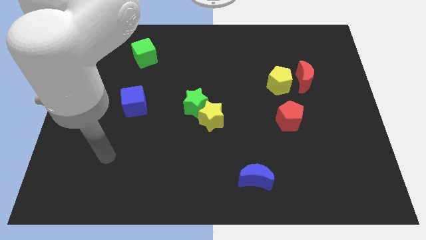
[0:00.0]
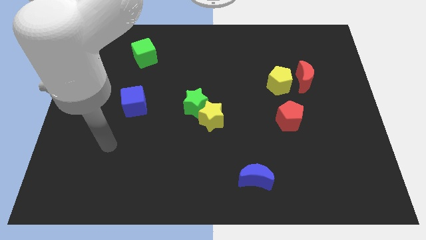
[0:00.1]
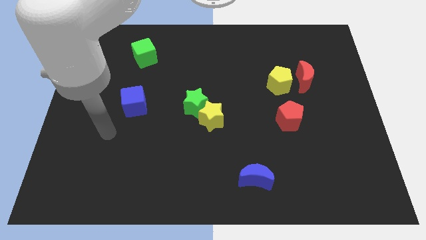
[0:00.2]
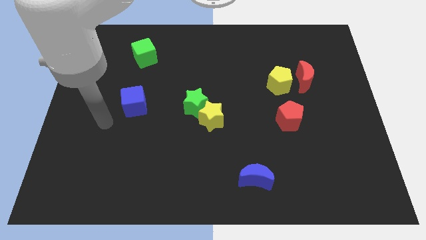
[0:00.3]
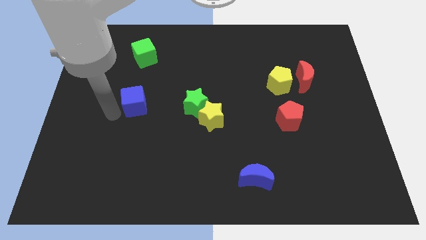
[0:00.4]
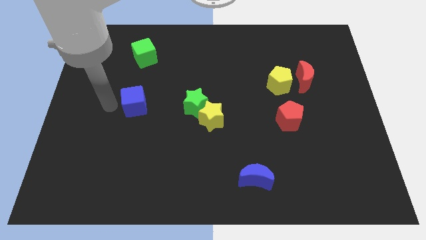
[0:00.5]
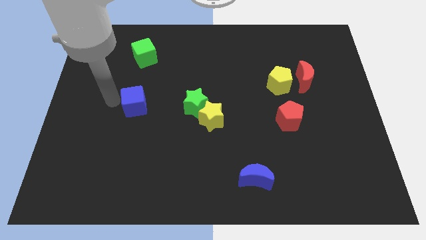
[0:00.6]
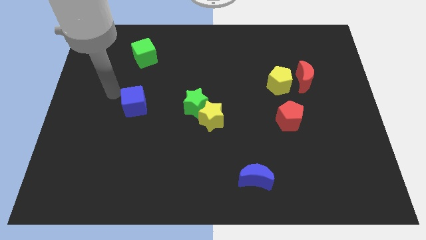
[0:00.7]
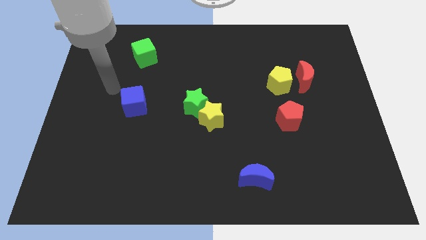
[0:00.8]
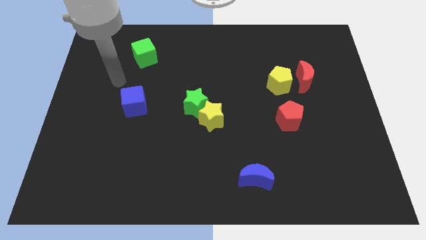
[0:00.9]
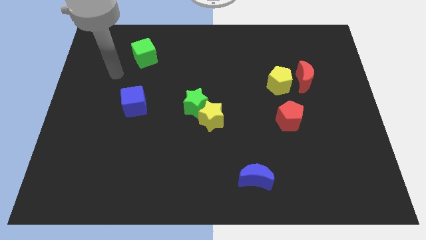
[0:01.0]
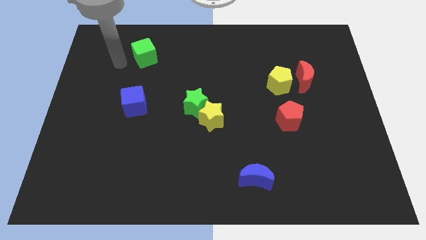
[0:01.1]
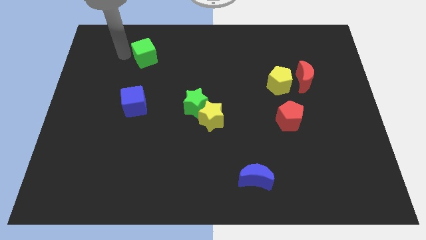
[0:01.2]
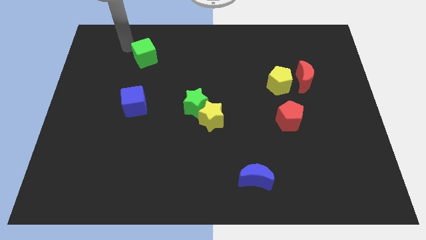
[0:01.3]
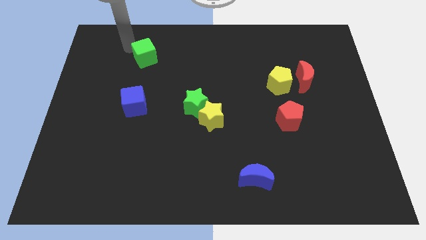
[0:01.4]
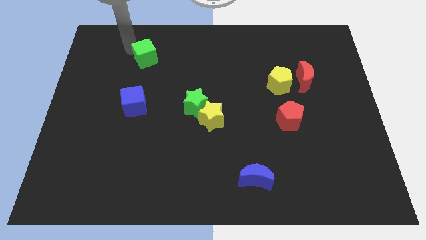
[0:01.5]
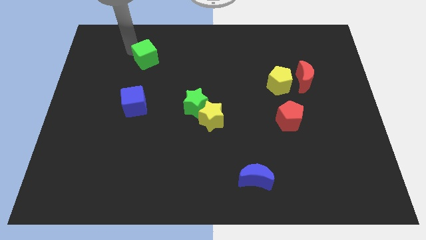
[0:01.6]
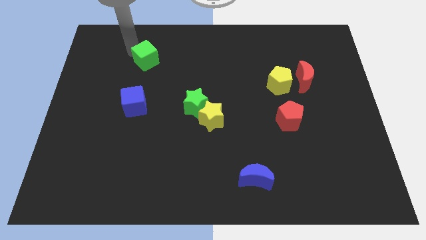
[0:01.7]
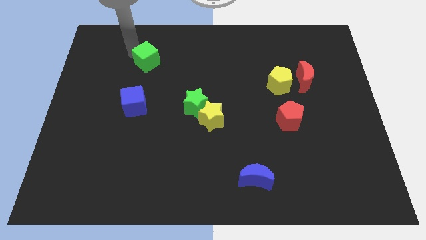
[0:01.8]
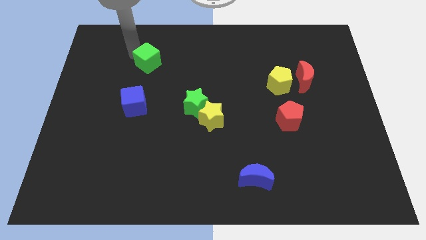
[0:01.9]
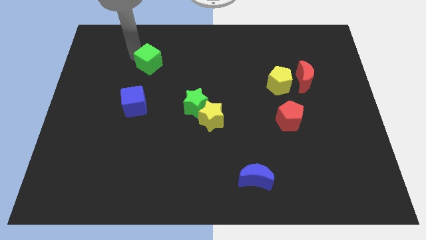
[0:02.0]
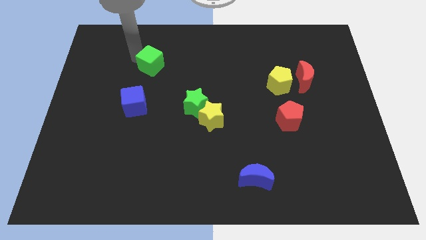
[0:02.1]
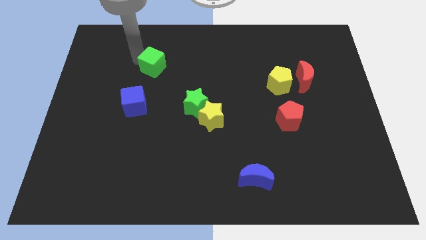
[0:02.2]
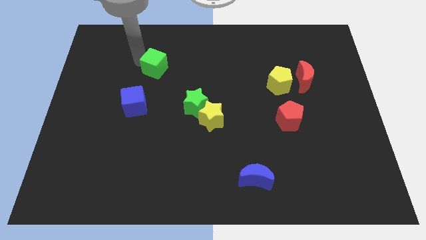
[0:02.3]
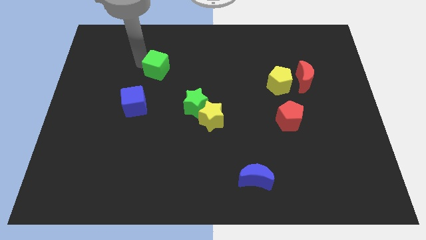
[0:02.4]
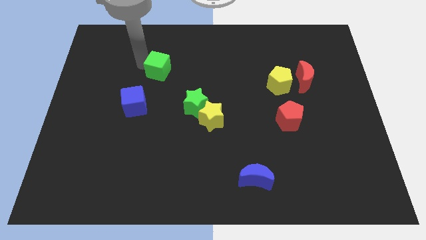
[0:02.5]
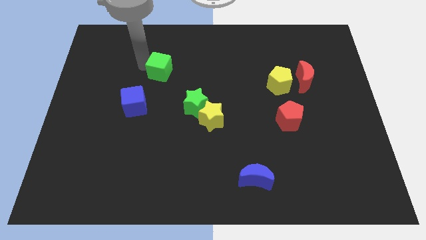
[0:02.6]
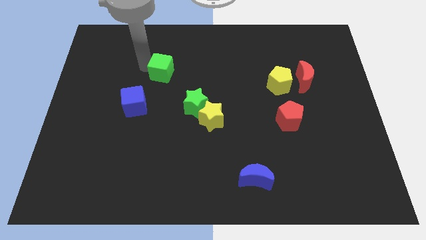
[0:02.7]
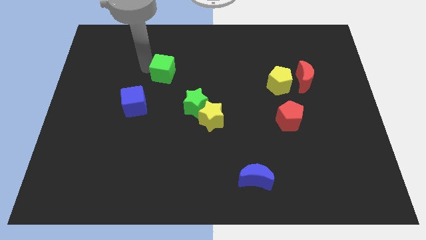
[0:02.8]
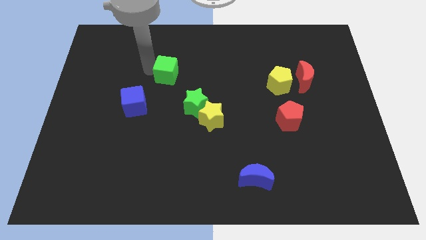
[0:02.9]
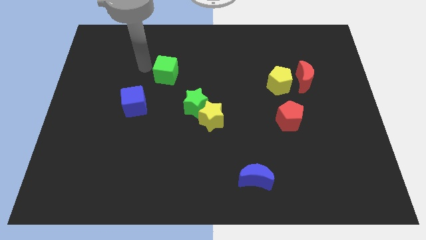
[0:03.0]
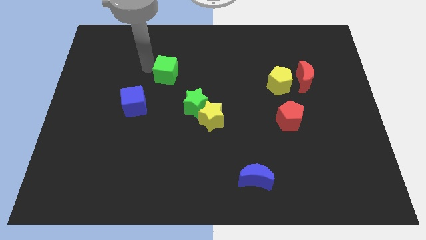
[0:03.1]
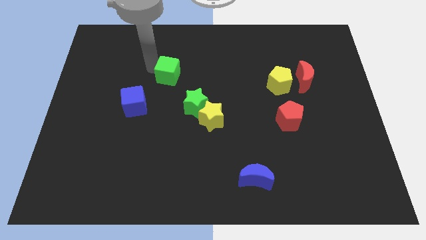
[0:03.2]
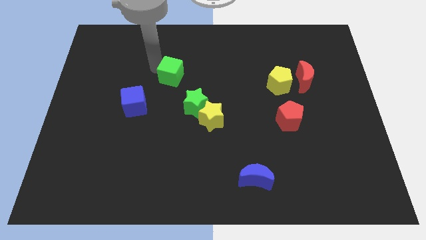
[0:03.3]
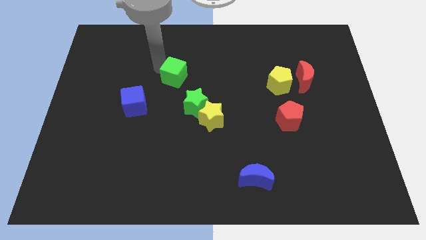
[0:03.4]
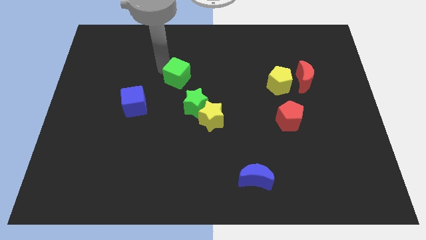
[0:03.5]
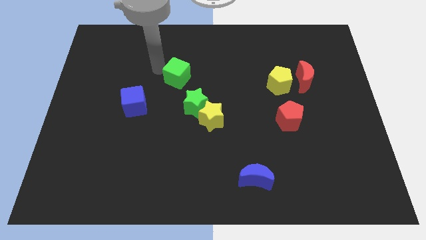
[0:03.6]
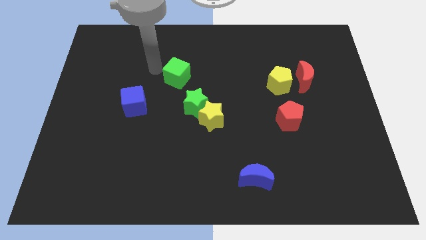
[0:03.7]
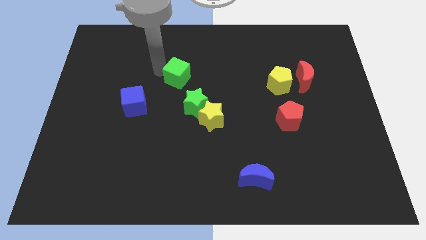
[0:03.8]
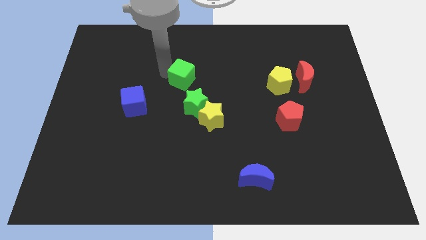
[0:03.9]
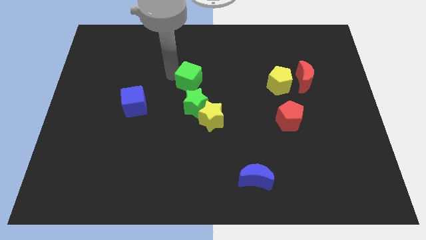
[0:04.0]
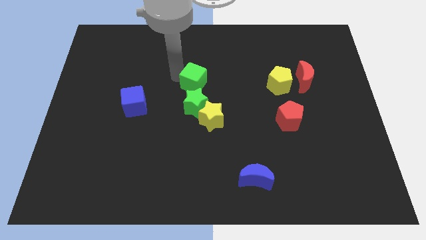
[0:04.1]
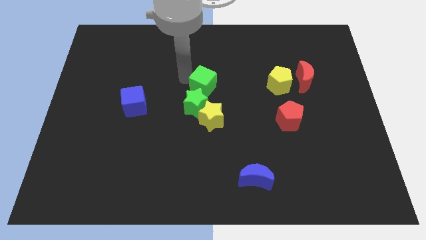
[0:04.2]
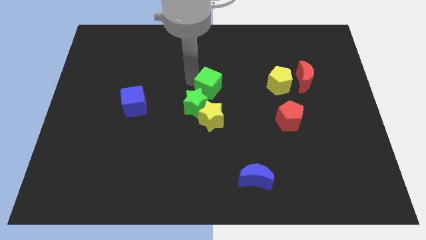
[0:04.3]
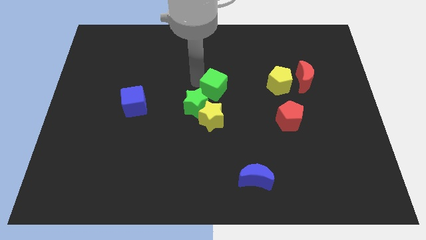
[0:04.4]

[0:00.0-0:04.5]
slide the green cube diagonally downwards and to the right

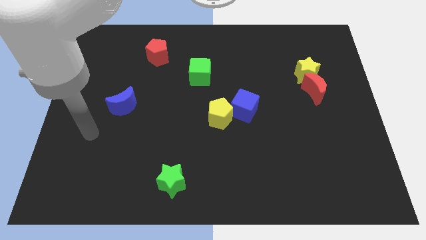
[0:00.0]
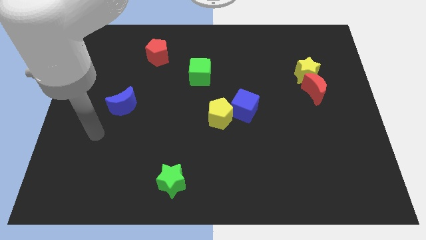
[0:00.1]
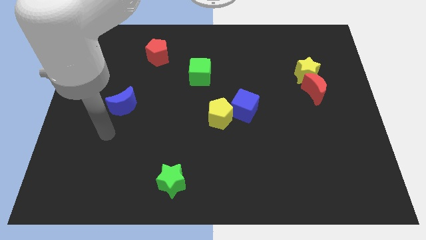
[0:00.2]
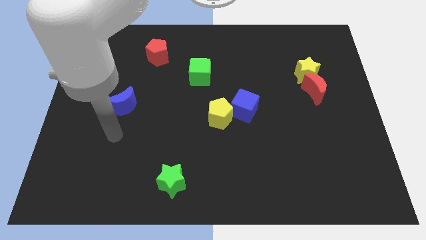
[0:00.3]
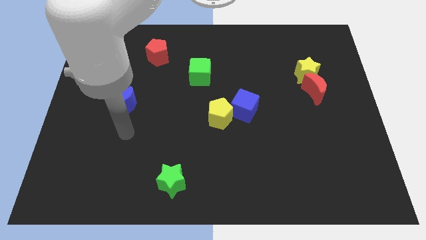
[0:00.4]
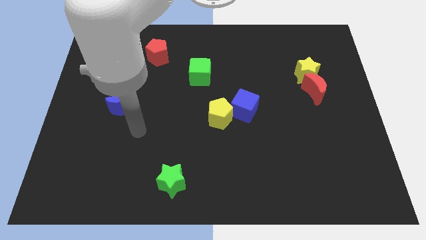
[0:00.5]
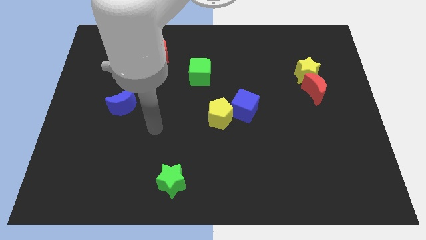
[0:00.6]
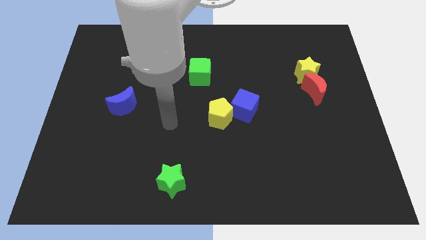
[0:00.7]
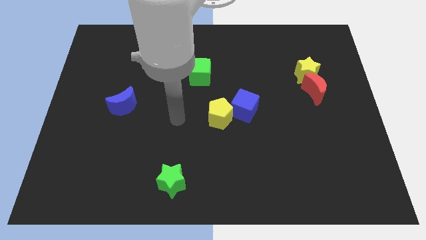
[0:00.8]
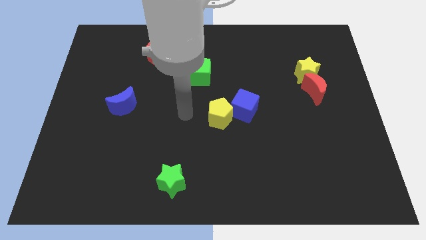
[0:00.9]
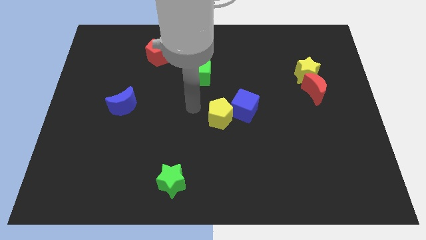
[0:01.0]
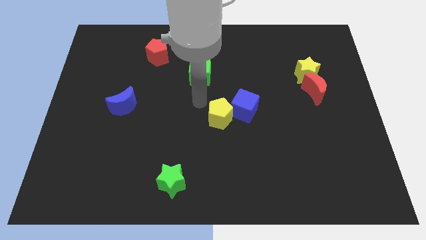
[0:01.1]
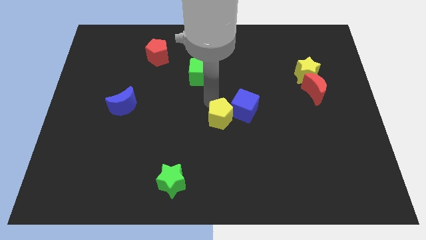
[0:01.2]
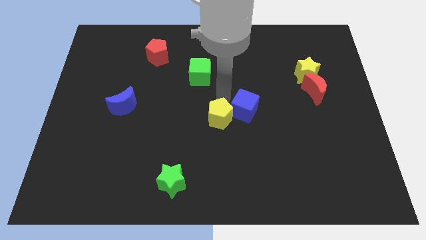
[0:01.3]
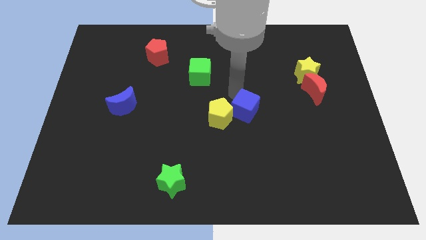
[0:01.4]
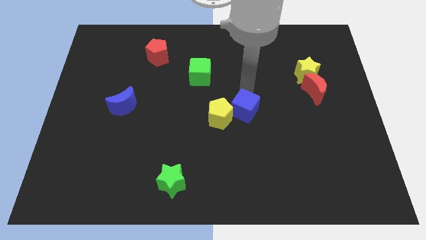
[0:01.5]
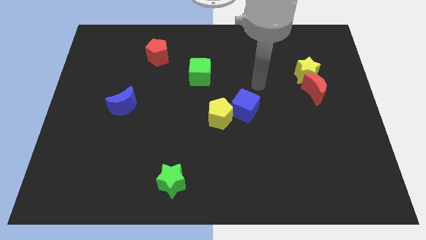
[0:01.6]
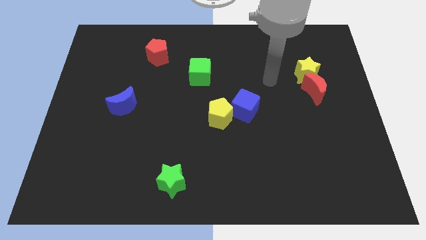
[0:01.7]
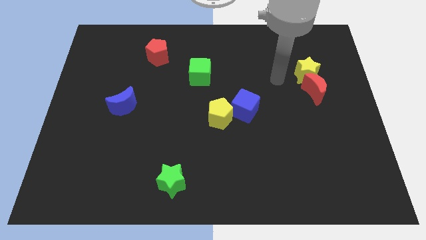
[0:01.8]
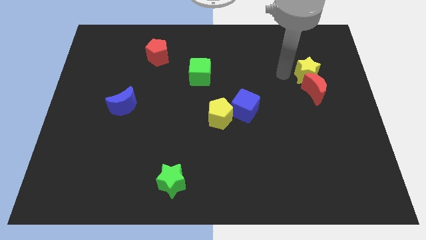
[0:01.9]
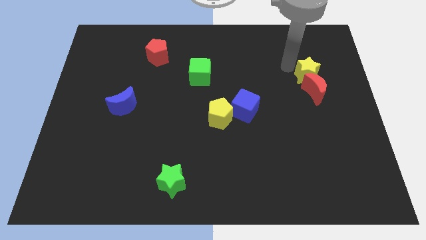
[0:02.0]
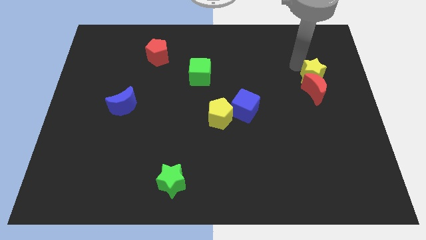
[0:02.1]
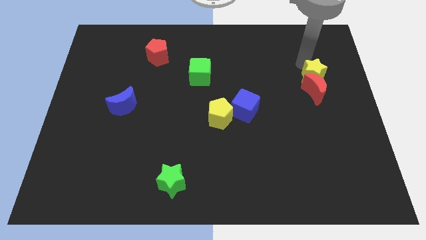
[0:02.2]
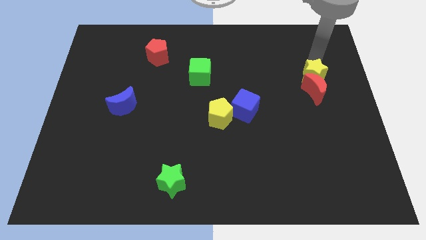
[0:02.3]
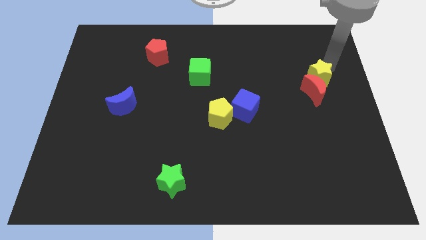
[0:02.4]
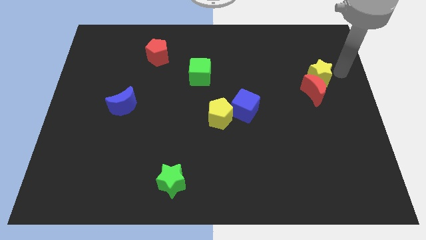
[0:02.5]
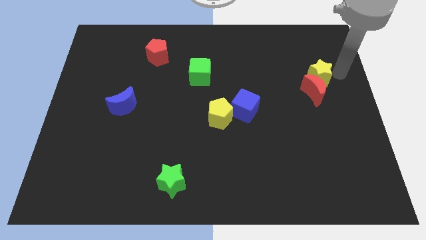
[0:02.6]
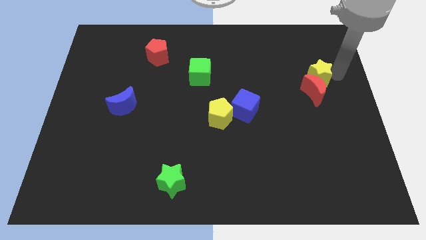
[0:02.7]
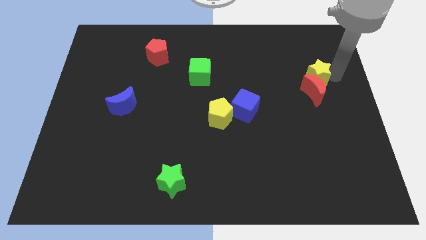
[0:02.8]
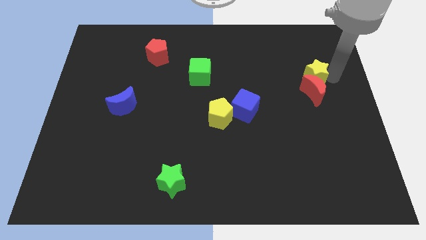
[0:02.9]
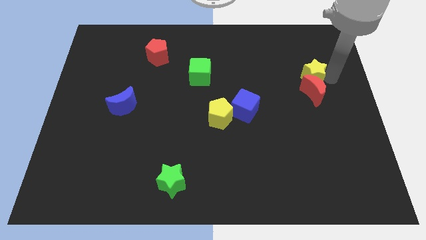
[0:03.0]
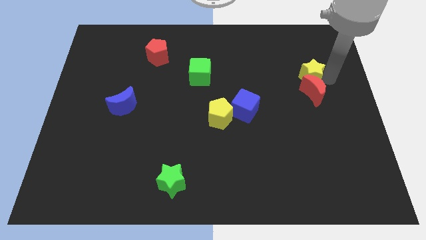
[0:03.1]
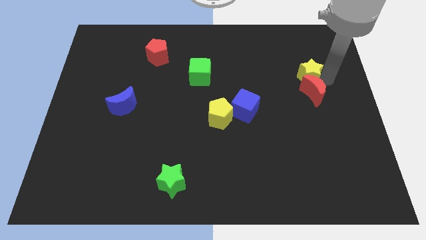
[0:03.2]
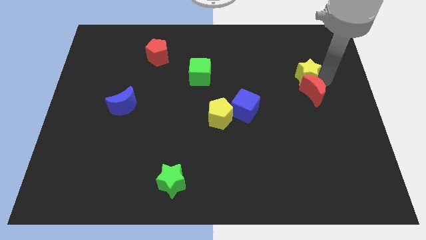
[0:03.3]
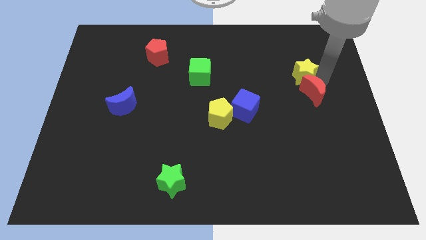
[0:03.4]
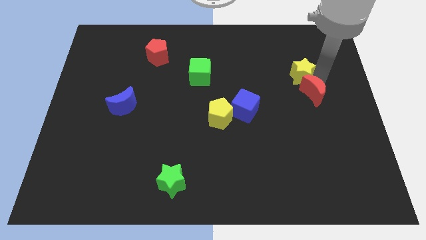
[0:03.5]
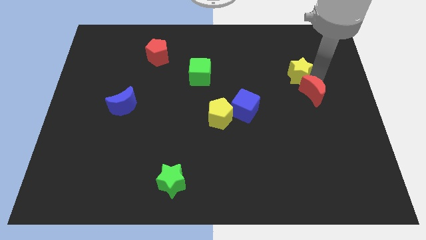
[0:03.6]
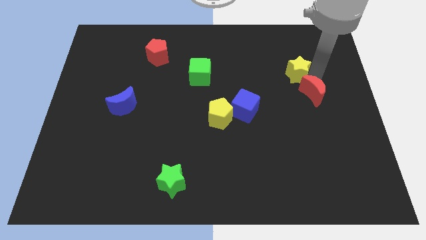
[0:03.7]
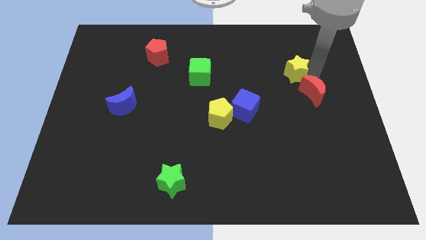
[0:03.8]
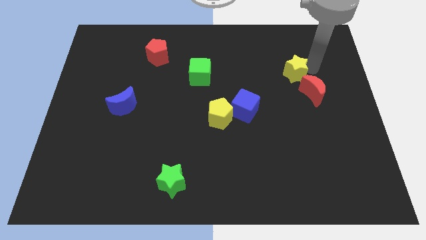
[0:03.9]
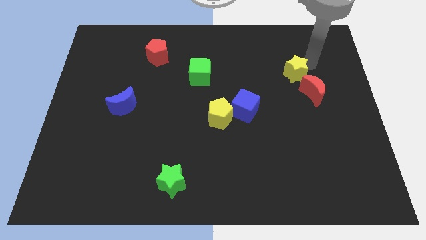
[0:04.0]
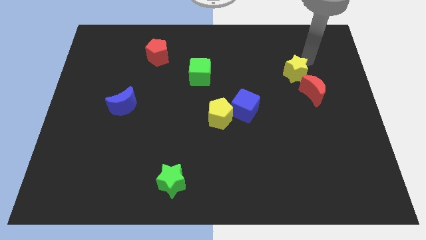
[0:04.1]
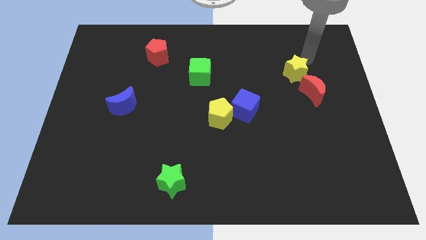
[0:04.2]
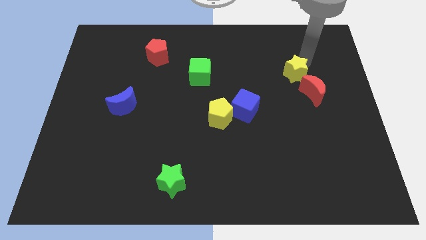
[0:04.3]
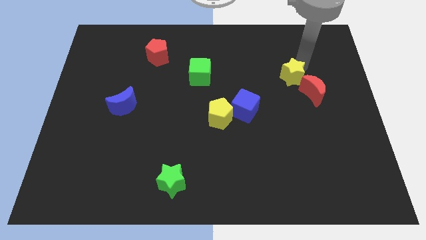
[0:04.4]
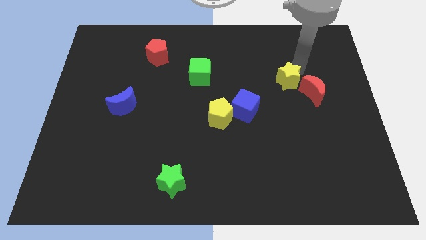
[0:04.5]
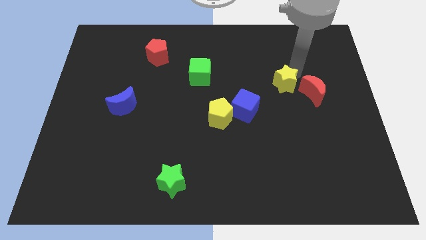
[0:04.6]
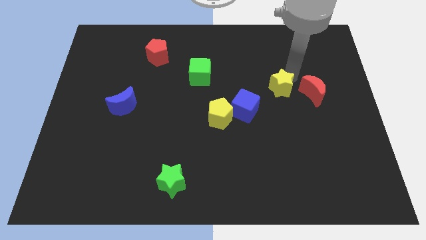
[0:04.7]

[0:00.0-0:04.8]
move the yellow star slightly down and then left
